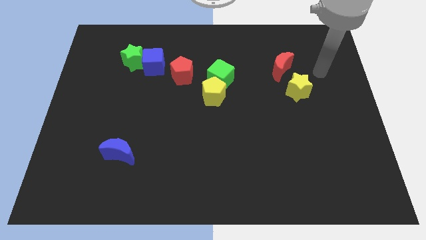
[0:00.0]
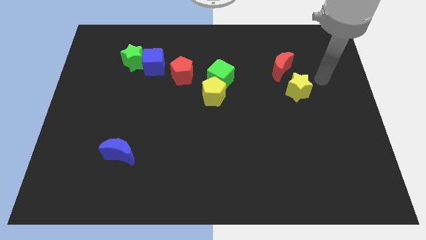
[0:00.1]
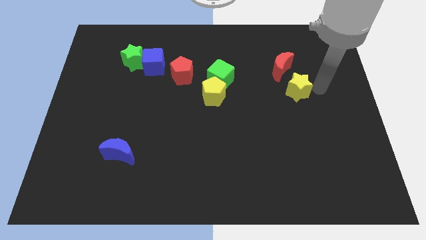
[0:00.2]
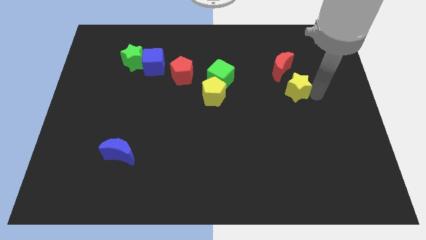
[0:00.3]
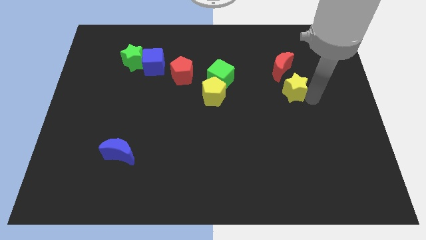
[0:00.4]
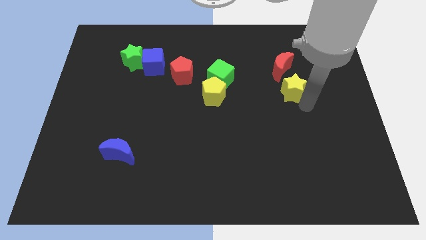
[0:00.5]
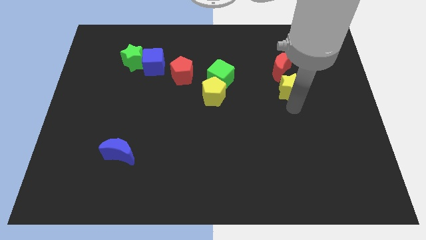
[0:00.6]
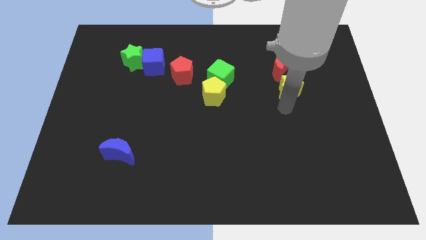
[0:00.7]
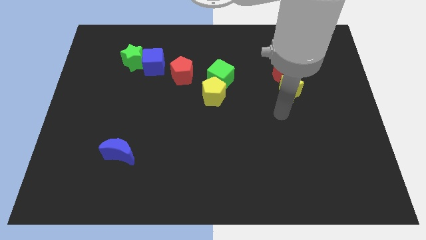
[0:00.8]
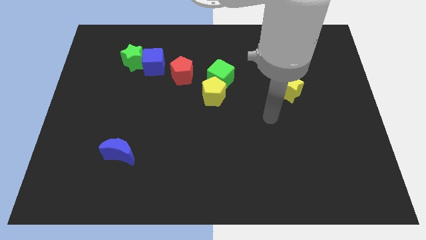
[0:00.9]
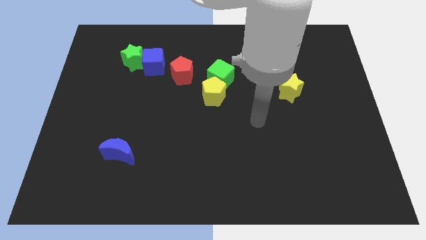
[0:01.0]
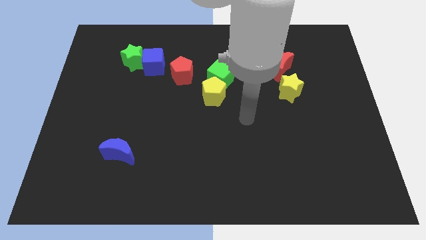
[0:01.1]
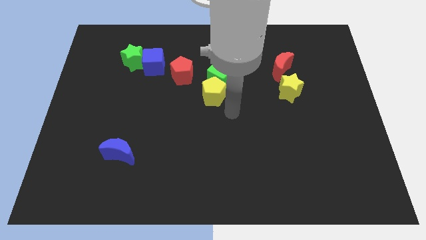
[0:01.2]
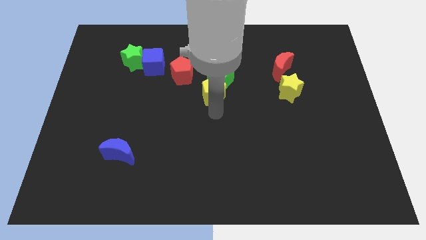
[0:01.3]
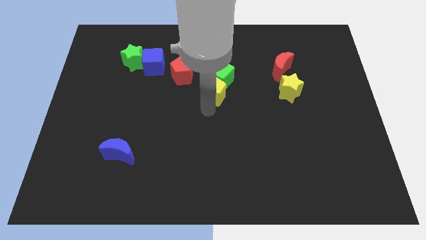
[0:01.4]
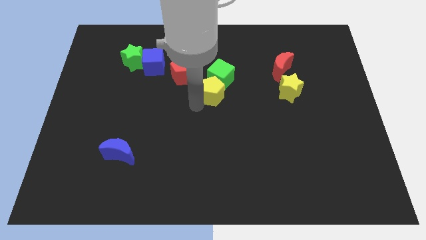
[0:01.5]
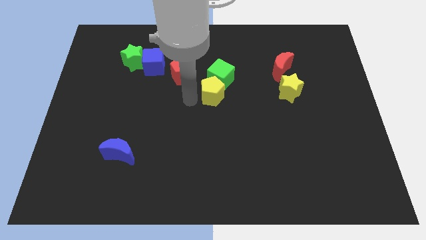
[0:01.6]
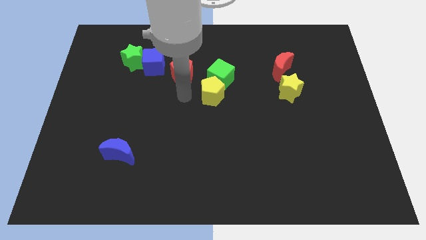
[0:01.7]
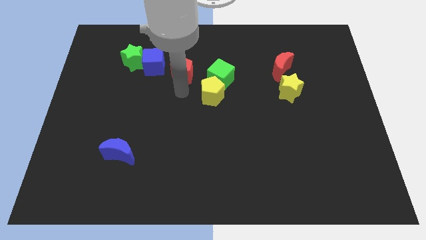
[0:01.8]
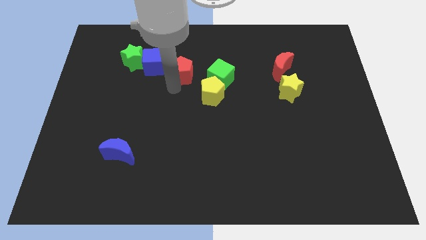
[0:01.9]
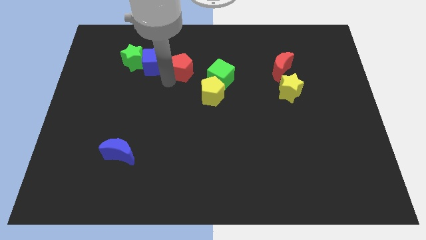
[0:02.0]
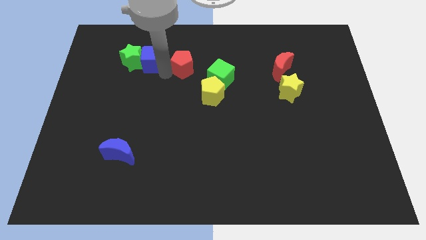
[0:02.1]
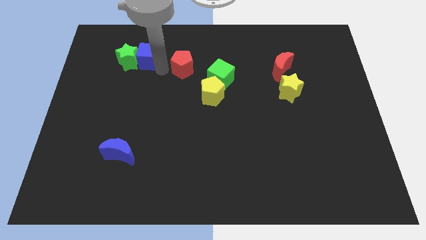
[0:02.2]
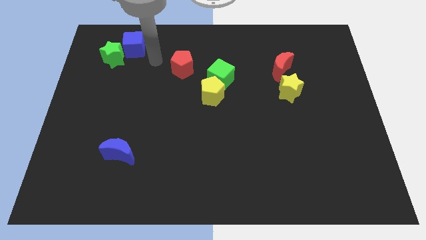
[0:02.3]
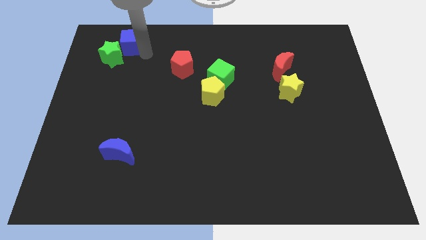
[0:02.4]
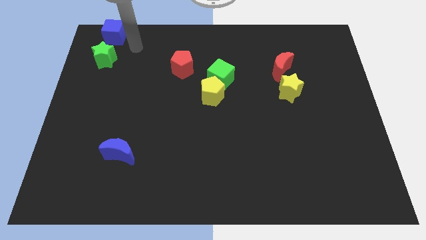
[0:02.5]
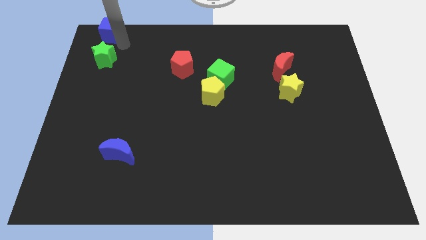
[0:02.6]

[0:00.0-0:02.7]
move the green star away from the blue cube

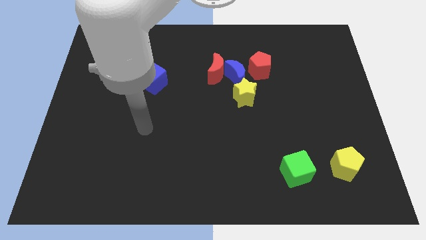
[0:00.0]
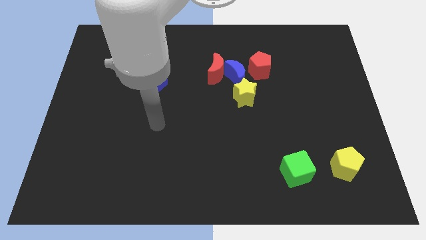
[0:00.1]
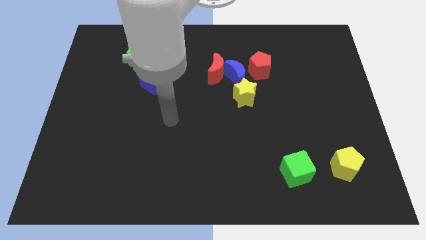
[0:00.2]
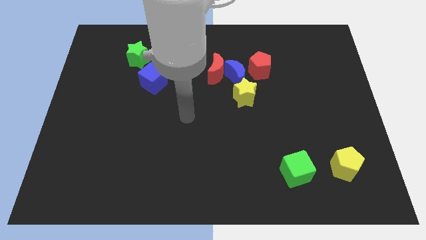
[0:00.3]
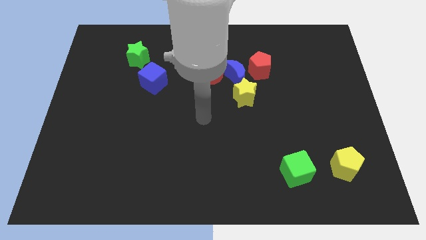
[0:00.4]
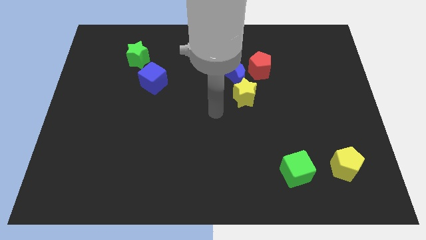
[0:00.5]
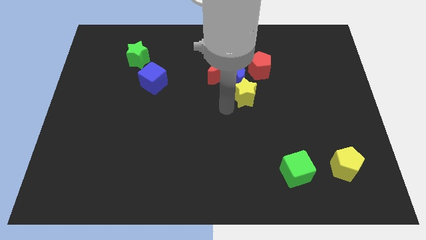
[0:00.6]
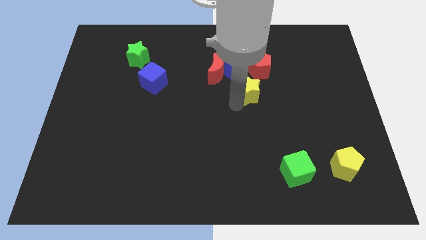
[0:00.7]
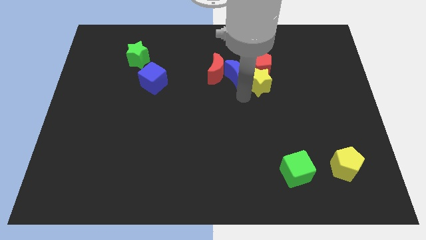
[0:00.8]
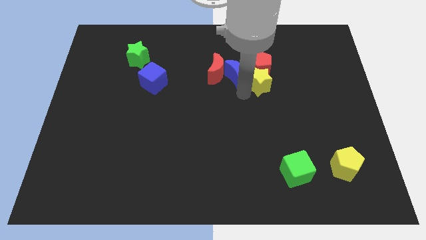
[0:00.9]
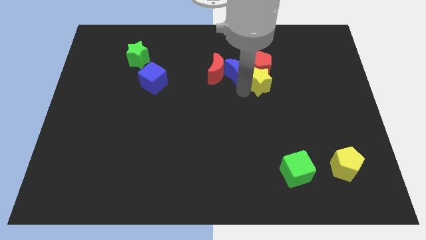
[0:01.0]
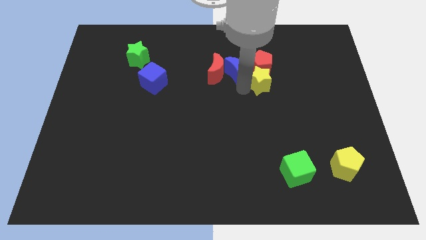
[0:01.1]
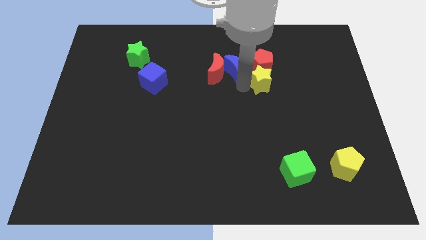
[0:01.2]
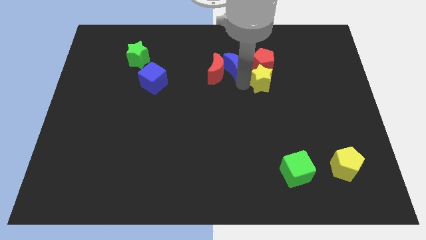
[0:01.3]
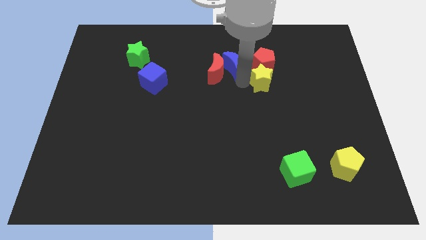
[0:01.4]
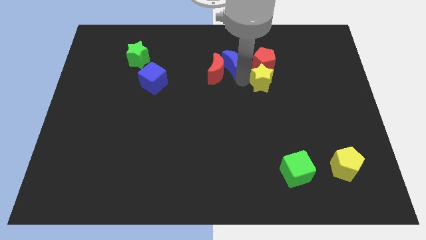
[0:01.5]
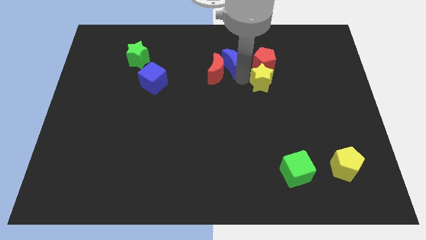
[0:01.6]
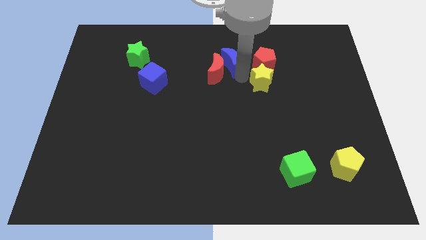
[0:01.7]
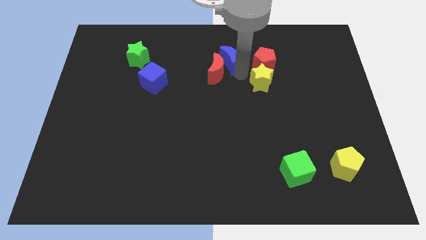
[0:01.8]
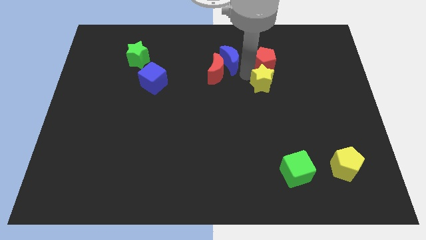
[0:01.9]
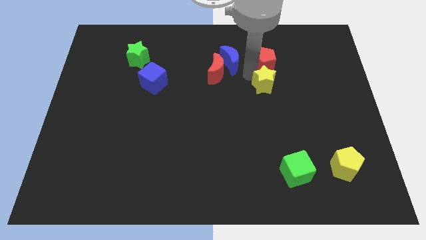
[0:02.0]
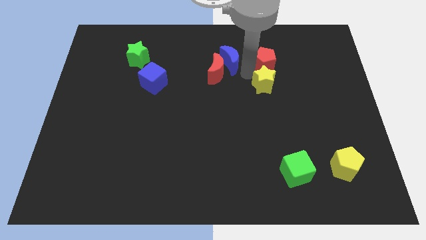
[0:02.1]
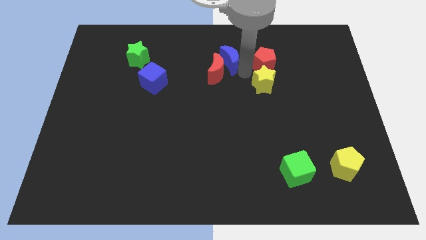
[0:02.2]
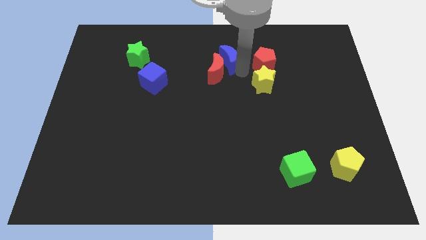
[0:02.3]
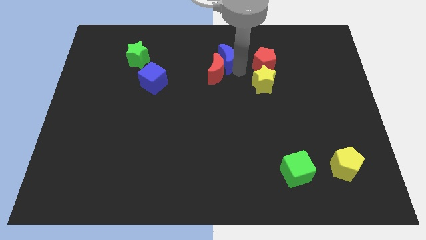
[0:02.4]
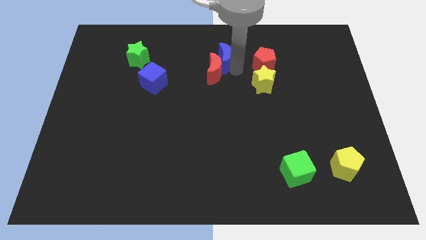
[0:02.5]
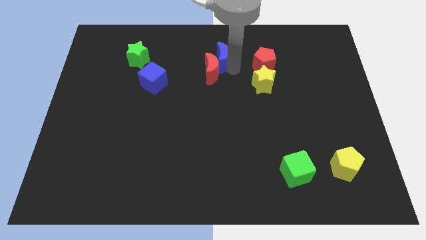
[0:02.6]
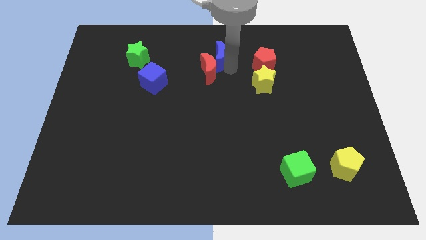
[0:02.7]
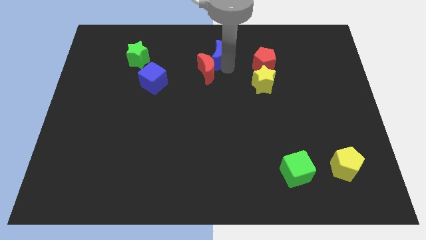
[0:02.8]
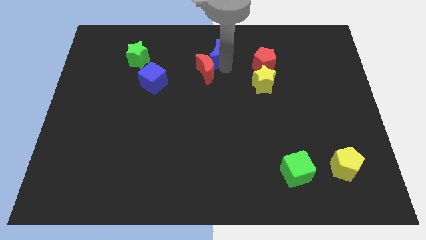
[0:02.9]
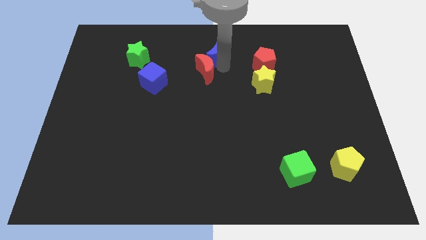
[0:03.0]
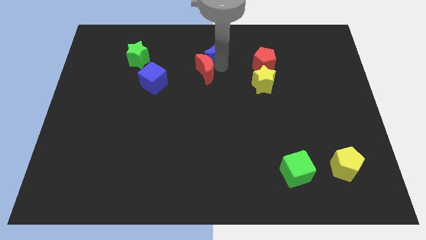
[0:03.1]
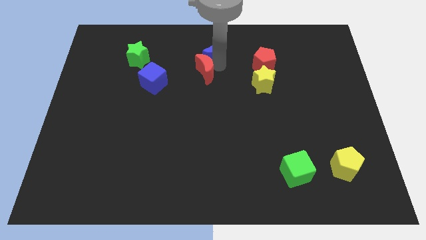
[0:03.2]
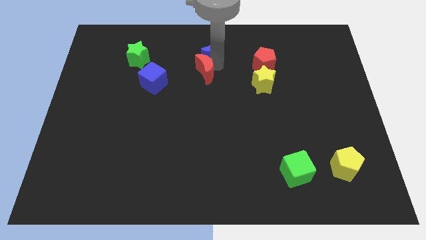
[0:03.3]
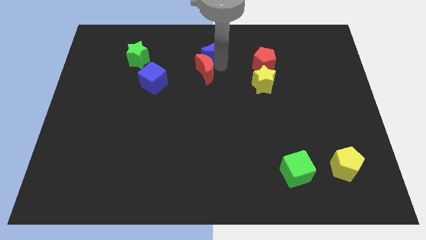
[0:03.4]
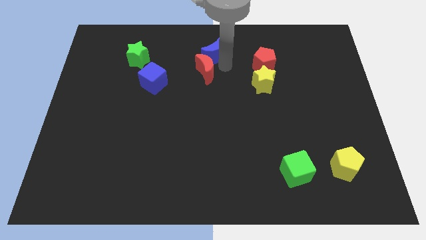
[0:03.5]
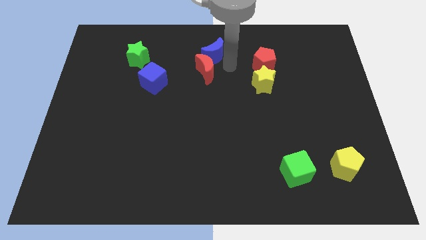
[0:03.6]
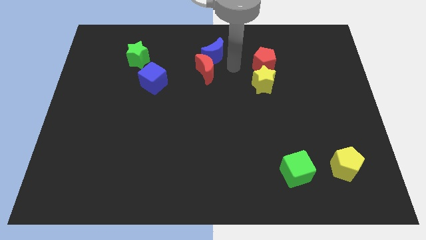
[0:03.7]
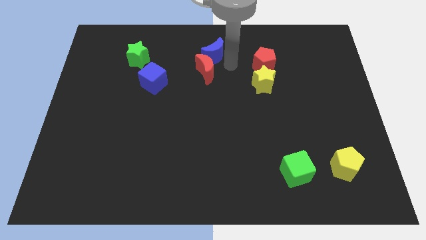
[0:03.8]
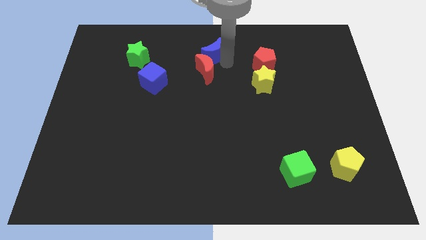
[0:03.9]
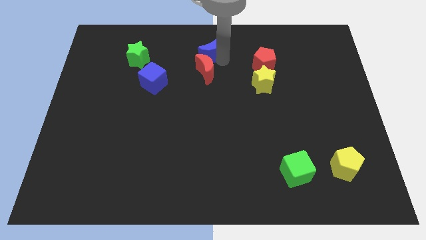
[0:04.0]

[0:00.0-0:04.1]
move the blue moon away from the group

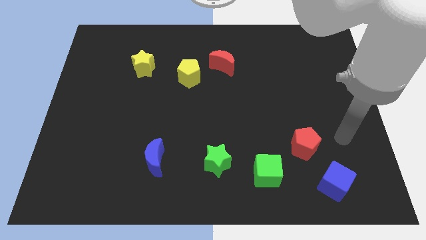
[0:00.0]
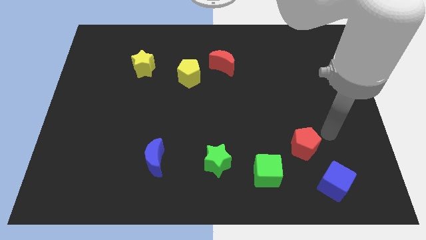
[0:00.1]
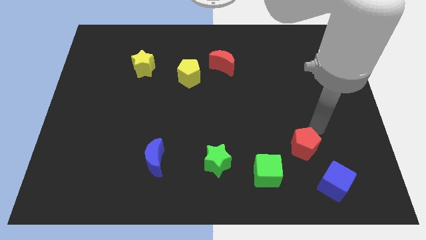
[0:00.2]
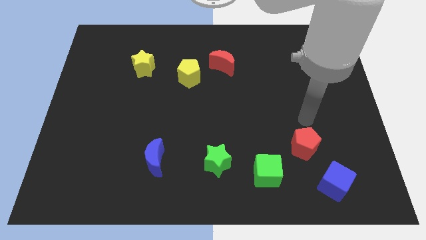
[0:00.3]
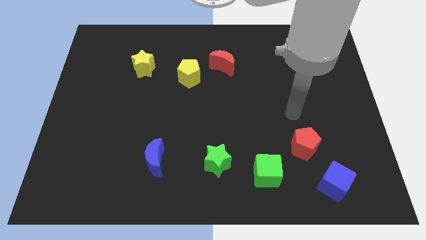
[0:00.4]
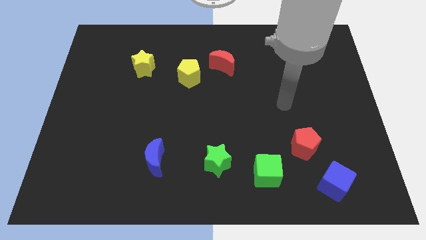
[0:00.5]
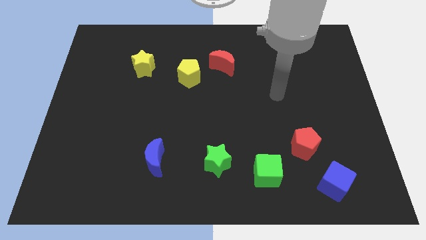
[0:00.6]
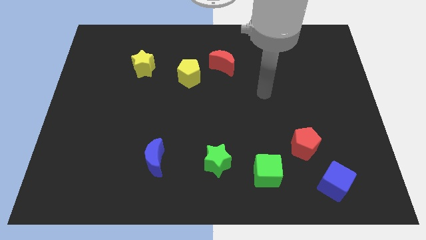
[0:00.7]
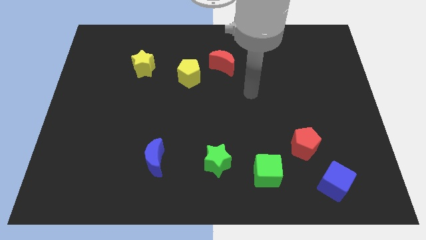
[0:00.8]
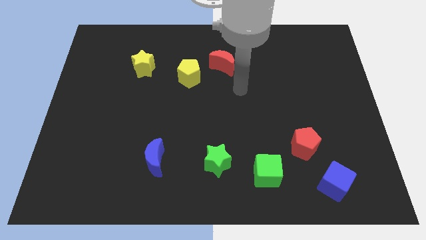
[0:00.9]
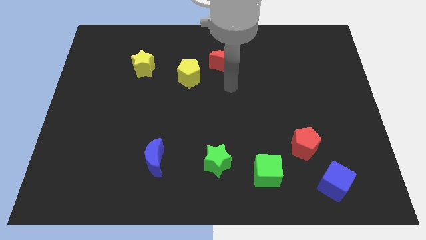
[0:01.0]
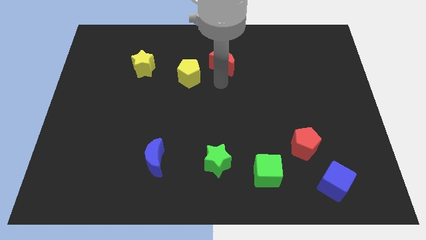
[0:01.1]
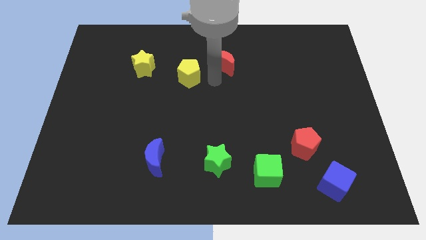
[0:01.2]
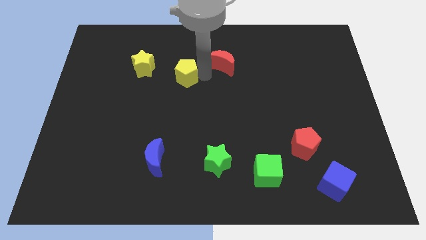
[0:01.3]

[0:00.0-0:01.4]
move the red moon away from the yellow pentagon

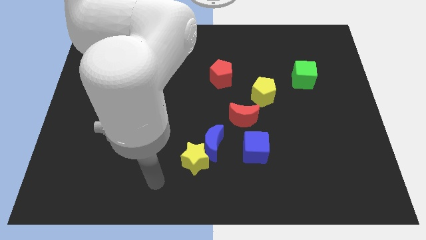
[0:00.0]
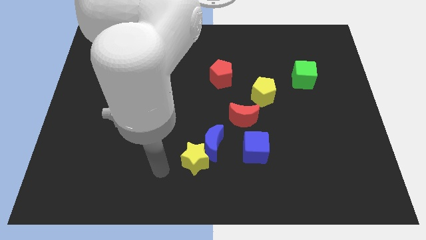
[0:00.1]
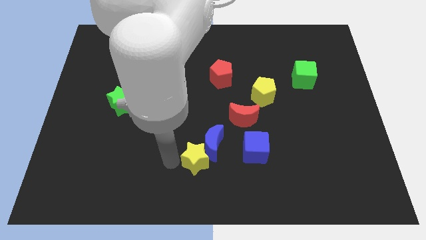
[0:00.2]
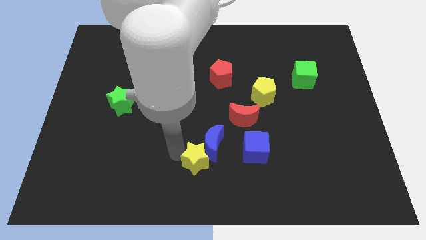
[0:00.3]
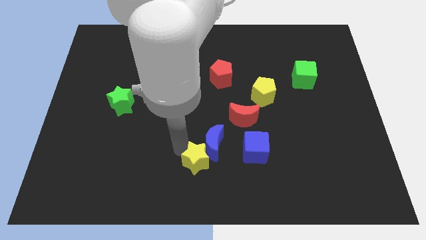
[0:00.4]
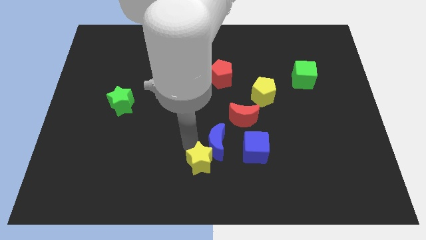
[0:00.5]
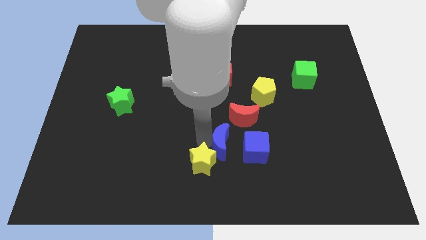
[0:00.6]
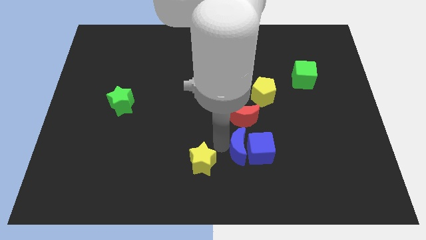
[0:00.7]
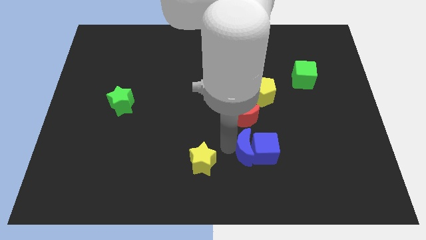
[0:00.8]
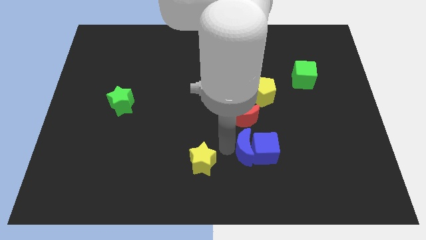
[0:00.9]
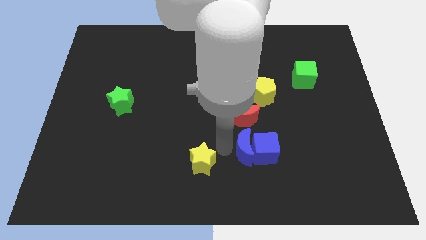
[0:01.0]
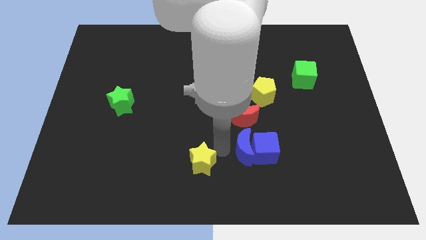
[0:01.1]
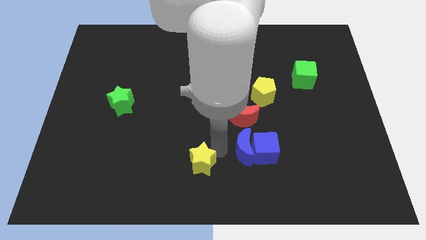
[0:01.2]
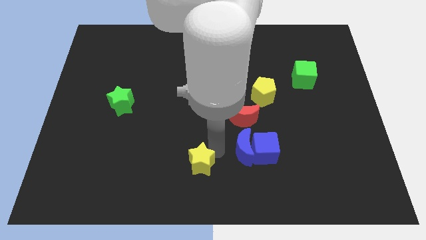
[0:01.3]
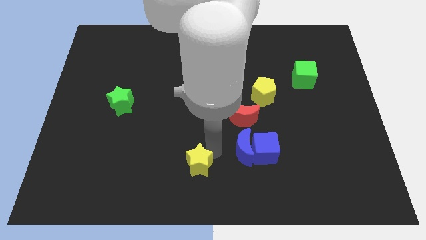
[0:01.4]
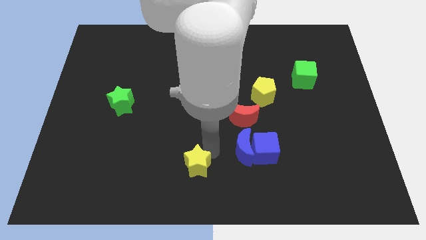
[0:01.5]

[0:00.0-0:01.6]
separate the yellow star from the blue moon
